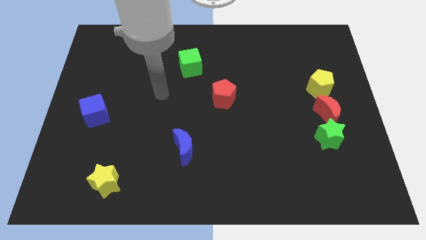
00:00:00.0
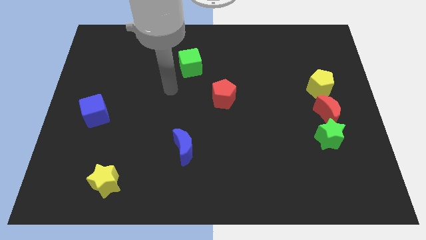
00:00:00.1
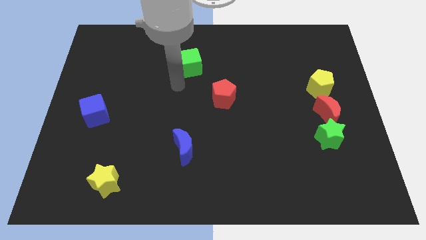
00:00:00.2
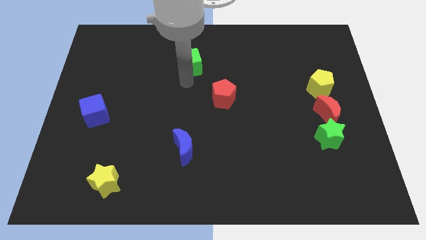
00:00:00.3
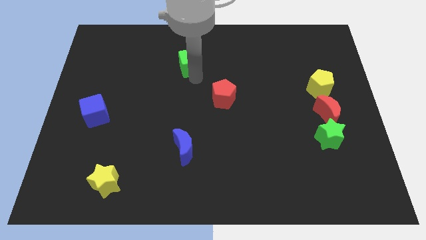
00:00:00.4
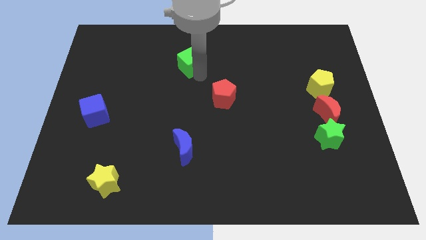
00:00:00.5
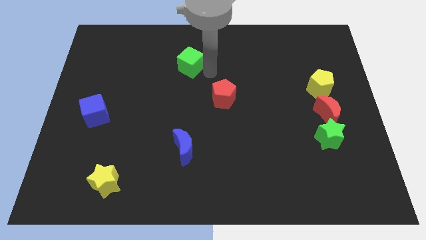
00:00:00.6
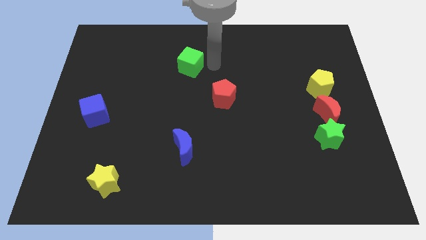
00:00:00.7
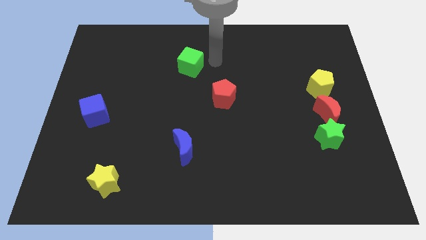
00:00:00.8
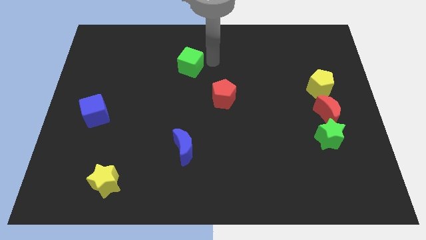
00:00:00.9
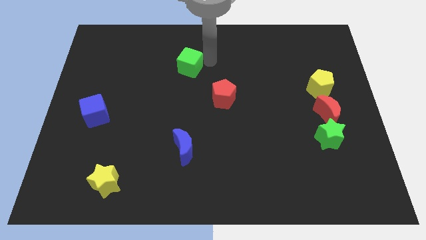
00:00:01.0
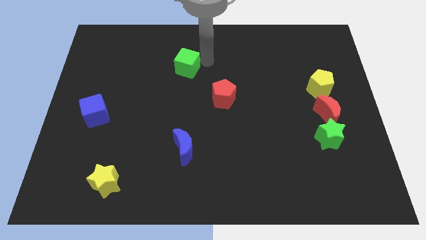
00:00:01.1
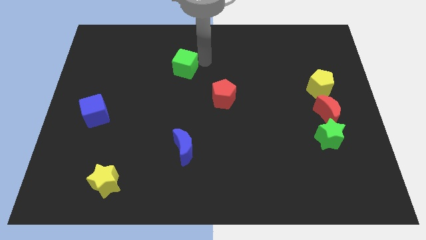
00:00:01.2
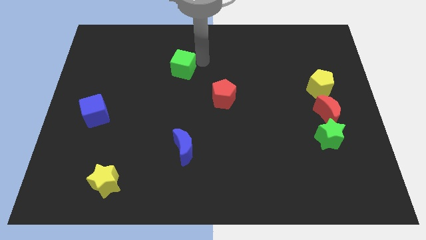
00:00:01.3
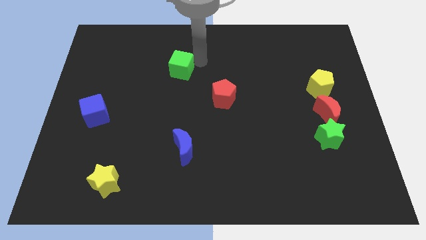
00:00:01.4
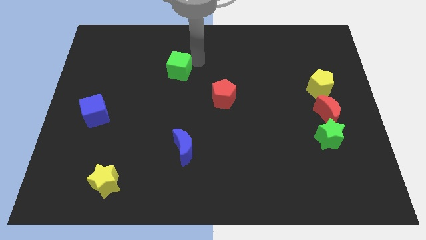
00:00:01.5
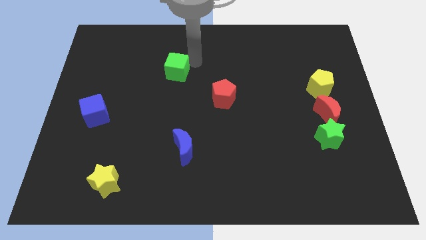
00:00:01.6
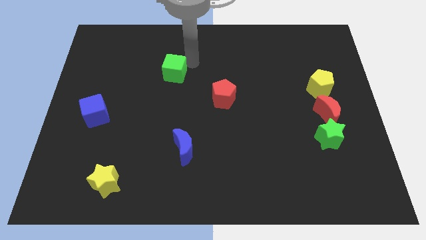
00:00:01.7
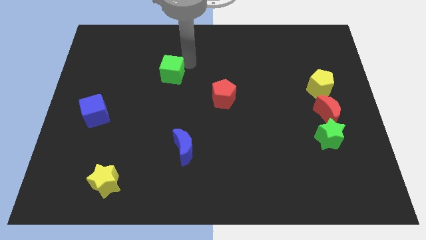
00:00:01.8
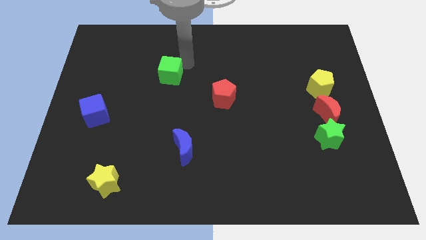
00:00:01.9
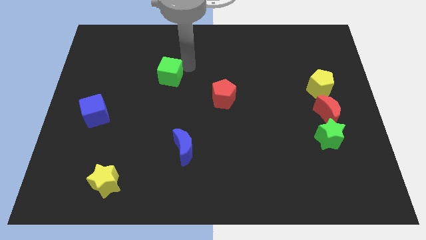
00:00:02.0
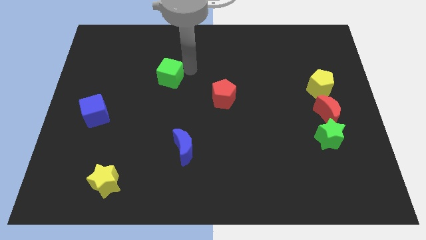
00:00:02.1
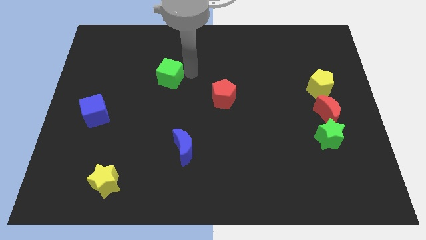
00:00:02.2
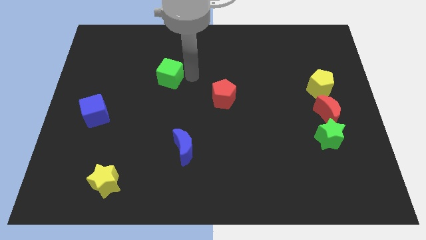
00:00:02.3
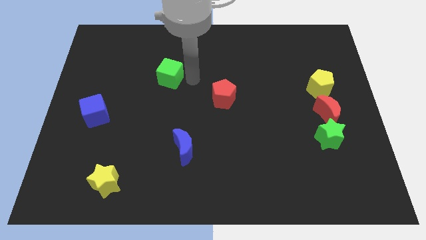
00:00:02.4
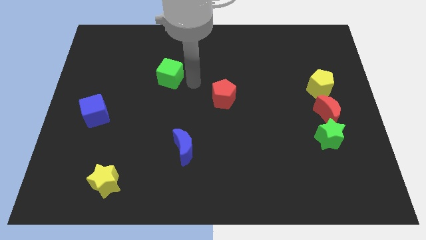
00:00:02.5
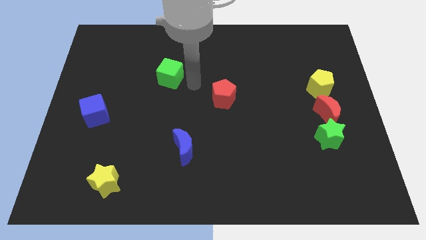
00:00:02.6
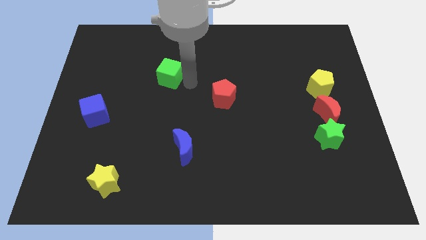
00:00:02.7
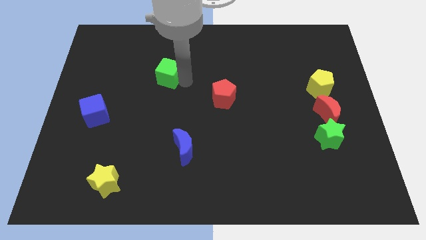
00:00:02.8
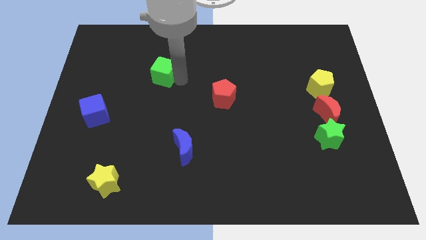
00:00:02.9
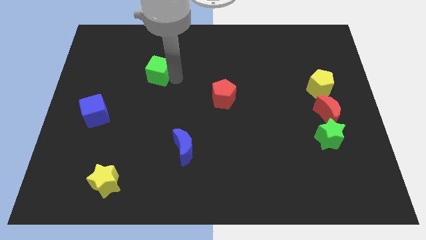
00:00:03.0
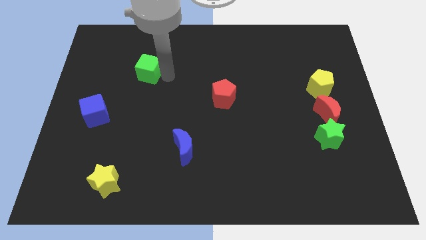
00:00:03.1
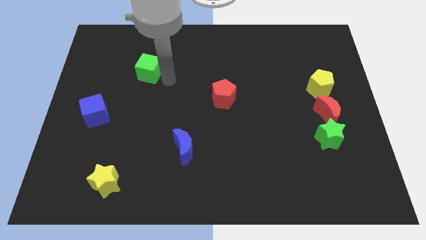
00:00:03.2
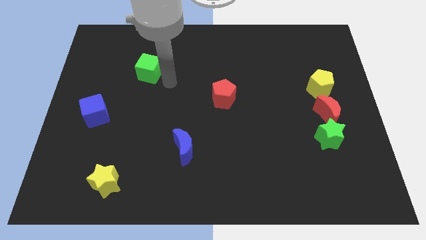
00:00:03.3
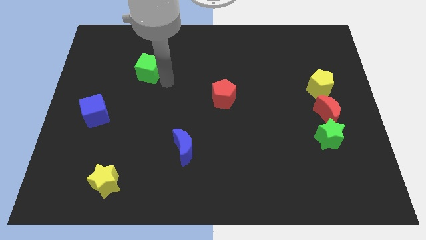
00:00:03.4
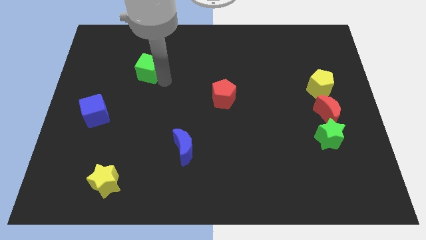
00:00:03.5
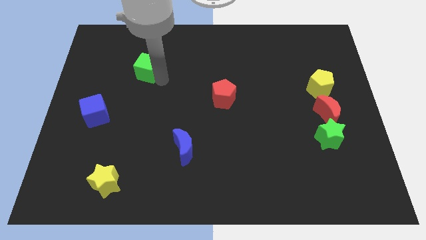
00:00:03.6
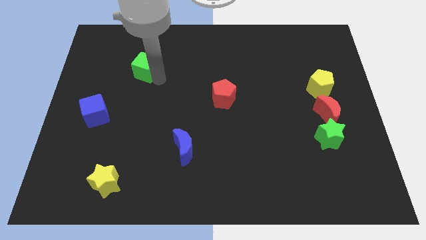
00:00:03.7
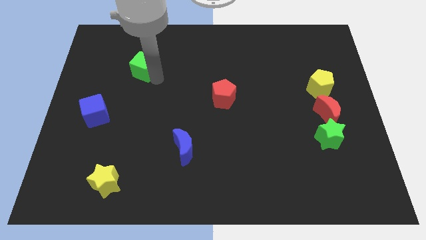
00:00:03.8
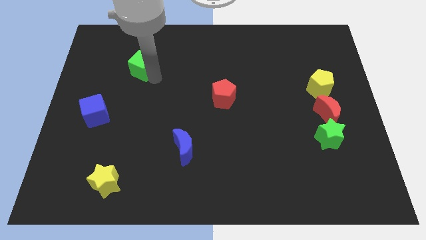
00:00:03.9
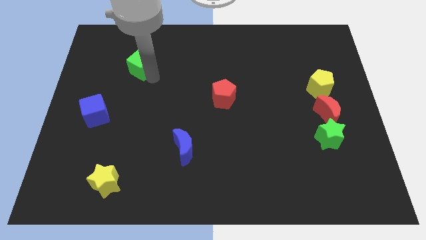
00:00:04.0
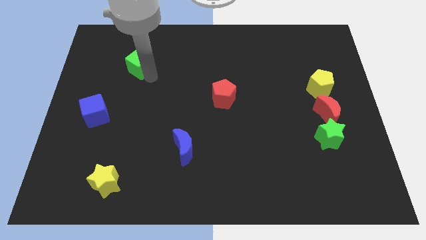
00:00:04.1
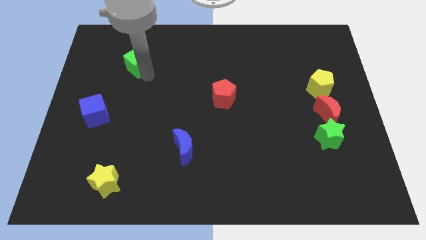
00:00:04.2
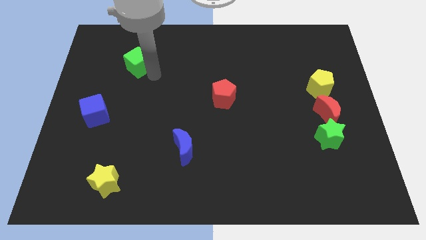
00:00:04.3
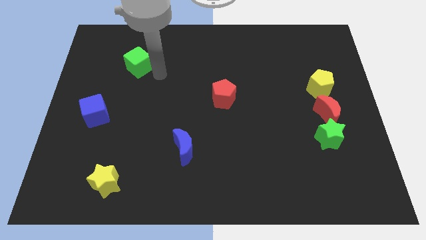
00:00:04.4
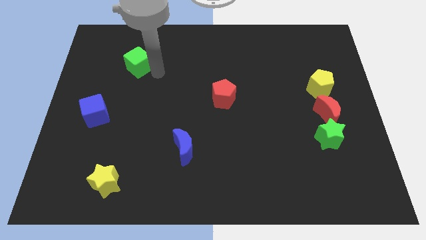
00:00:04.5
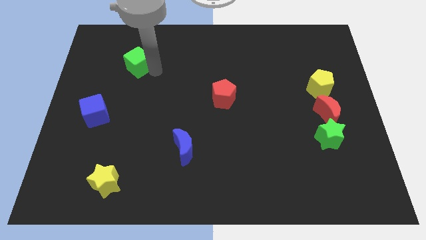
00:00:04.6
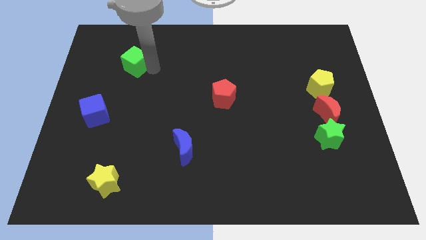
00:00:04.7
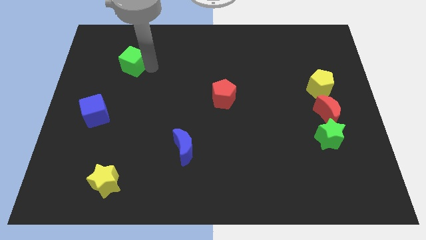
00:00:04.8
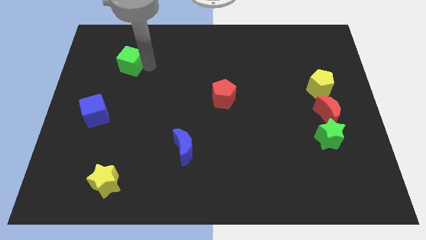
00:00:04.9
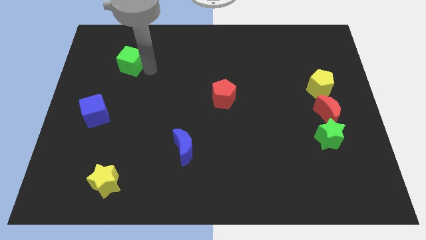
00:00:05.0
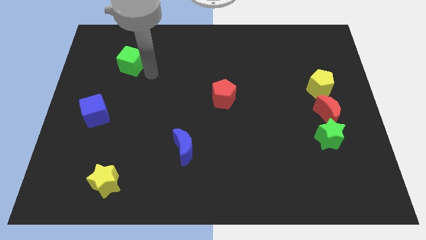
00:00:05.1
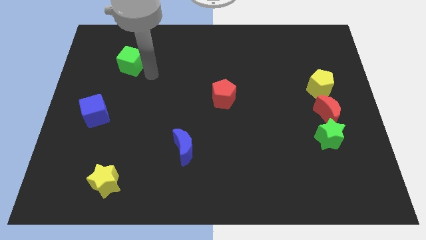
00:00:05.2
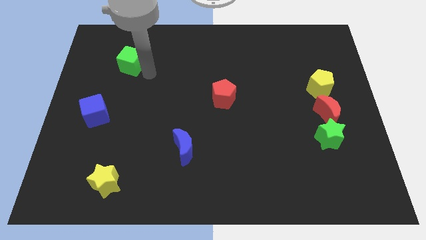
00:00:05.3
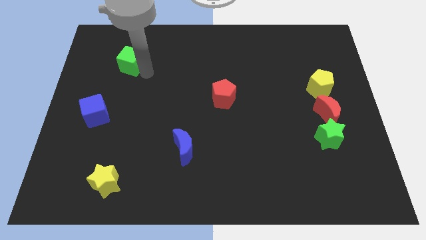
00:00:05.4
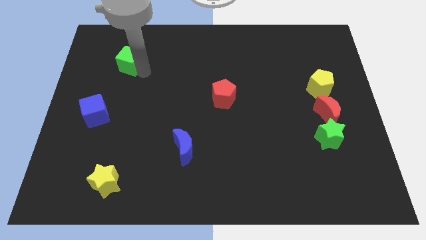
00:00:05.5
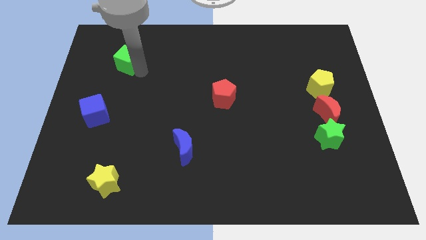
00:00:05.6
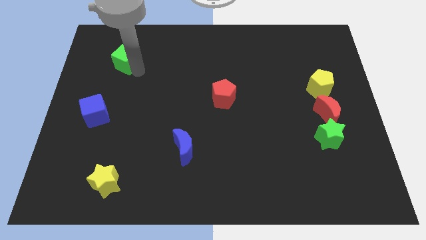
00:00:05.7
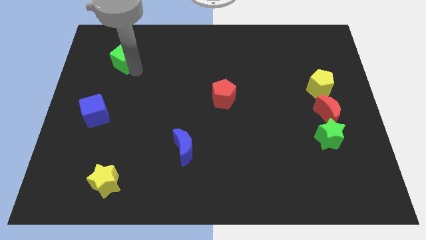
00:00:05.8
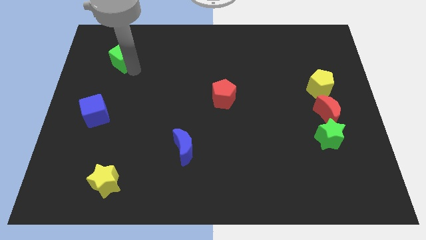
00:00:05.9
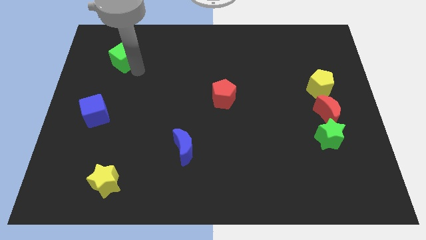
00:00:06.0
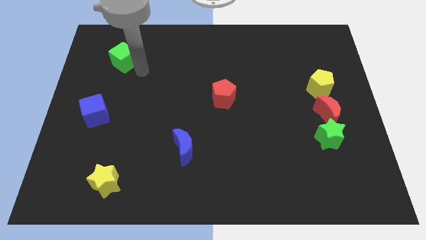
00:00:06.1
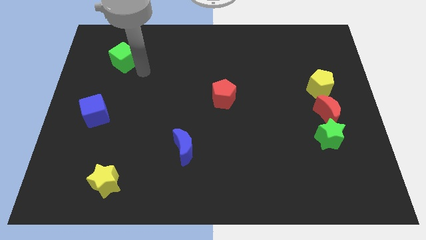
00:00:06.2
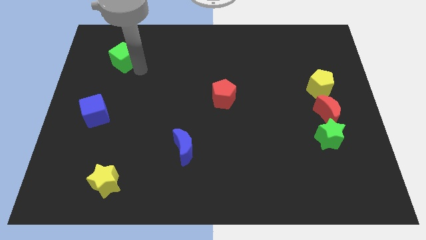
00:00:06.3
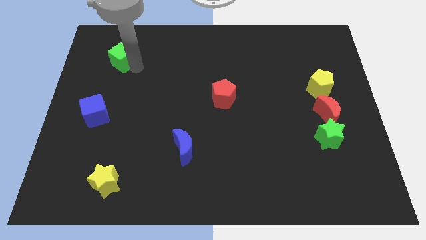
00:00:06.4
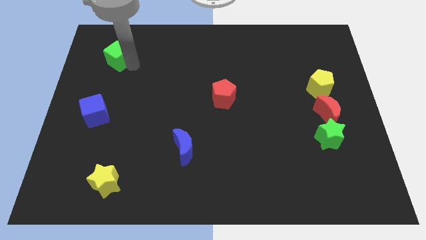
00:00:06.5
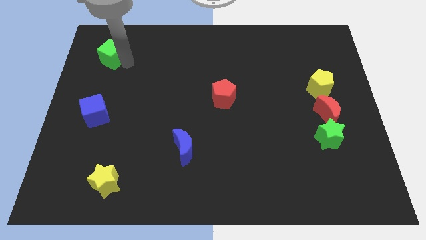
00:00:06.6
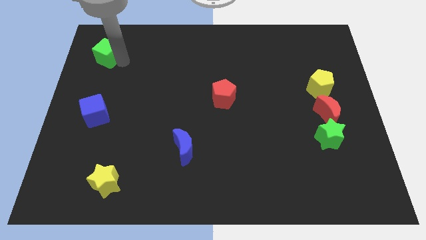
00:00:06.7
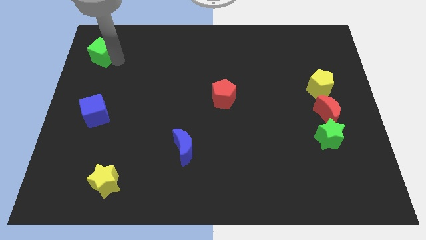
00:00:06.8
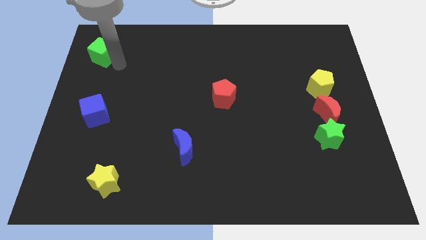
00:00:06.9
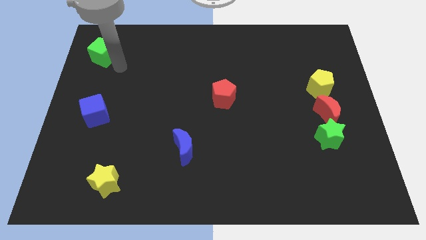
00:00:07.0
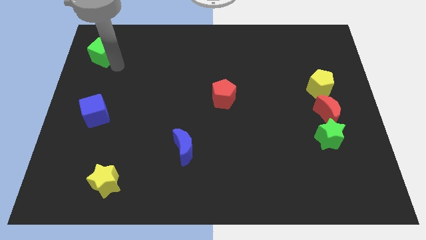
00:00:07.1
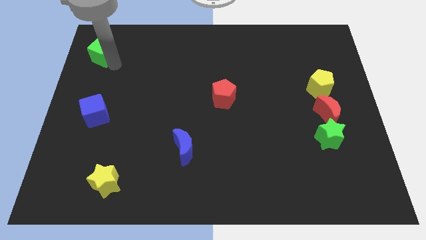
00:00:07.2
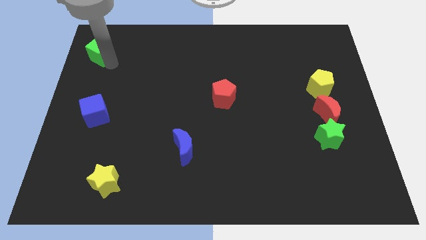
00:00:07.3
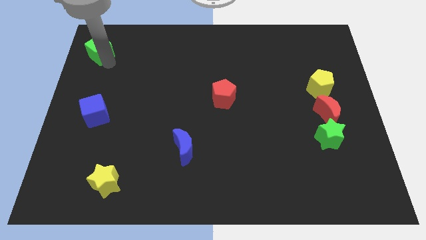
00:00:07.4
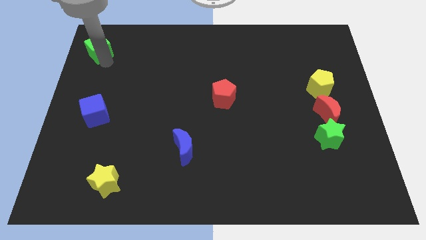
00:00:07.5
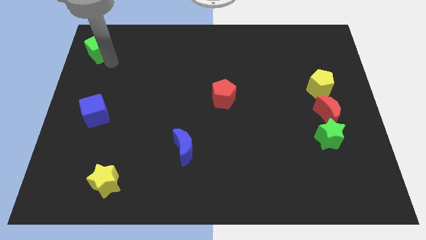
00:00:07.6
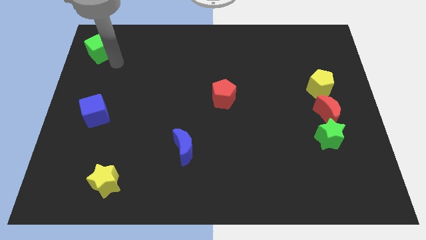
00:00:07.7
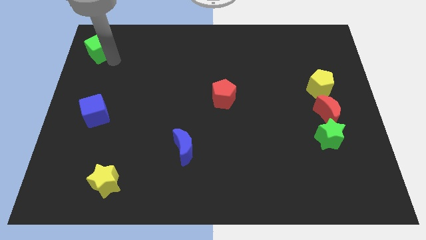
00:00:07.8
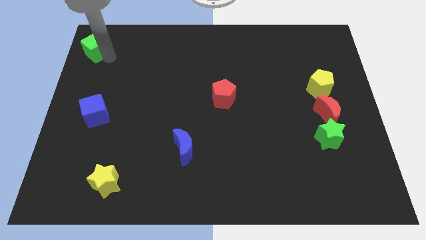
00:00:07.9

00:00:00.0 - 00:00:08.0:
move the green cube to the top left of the board
